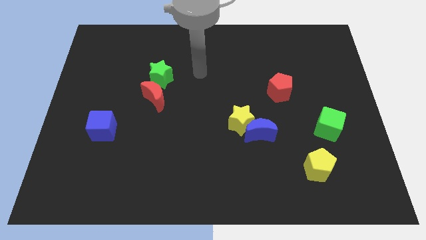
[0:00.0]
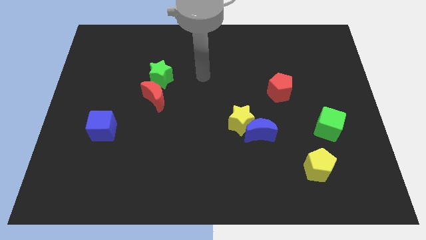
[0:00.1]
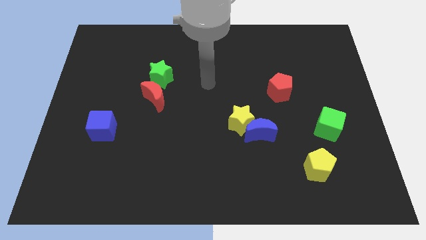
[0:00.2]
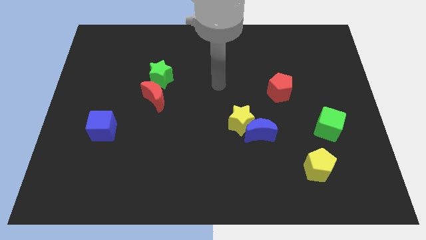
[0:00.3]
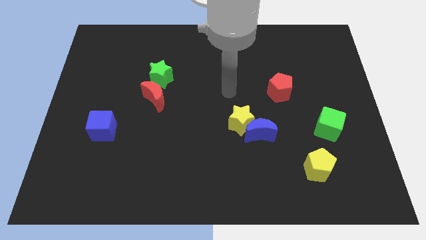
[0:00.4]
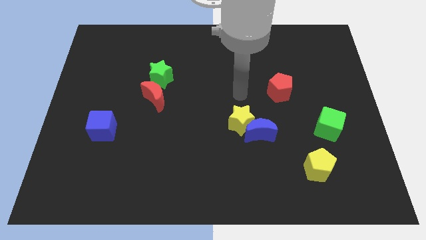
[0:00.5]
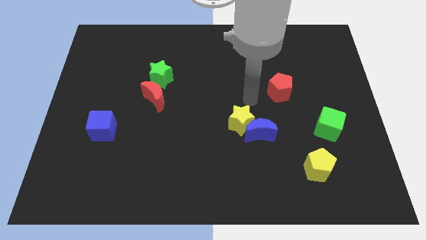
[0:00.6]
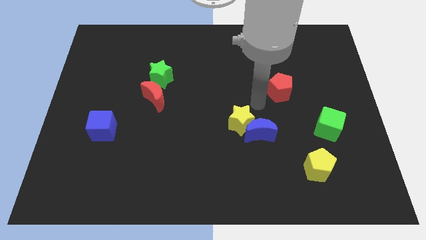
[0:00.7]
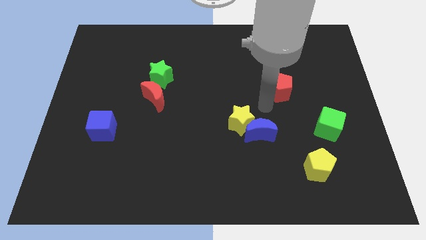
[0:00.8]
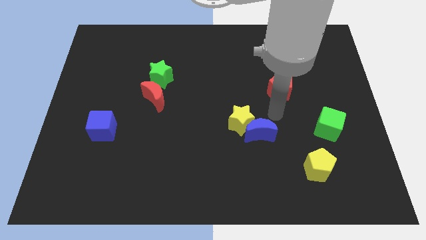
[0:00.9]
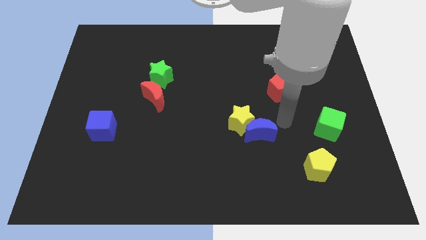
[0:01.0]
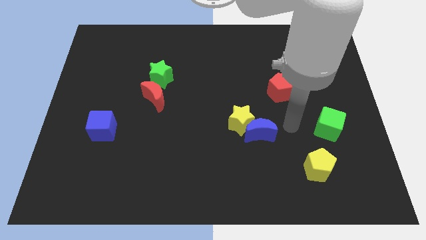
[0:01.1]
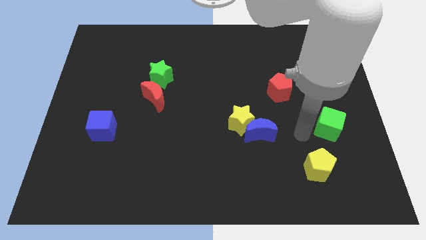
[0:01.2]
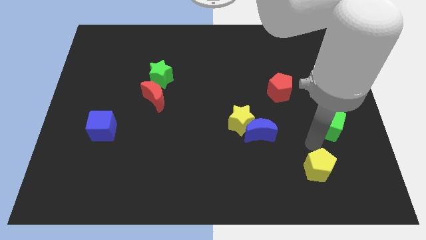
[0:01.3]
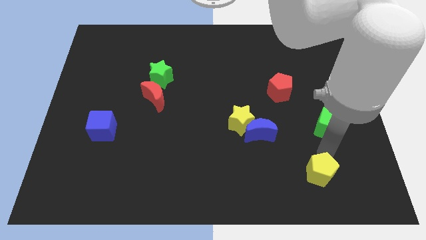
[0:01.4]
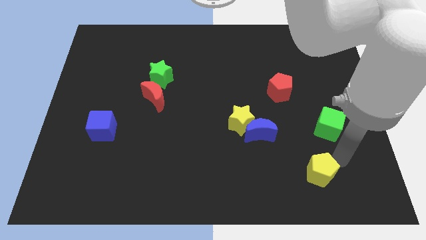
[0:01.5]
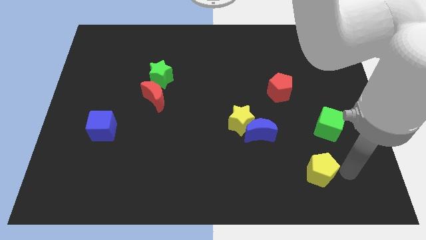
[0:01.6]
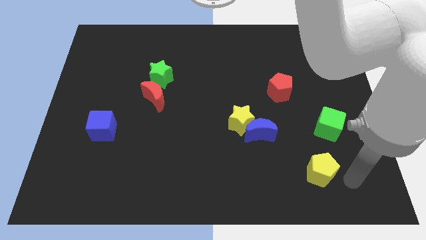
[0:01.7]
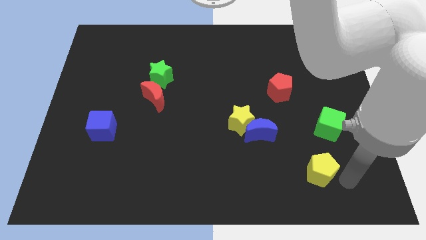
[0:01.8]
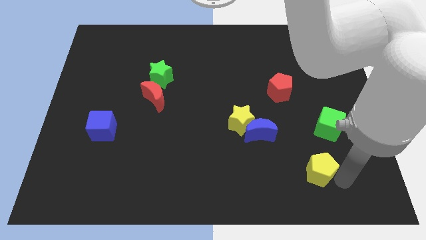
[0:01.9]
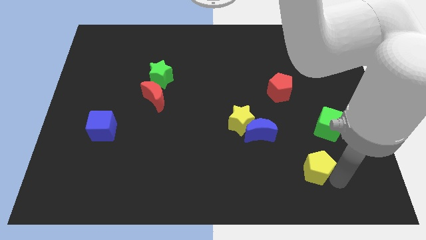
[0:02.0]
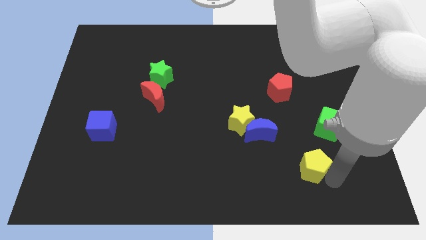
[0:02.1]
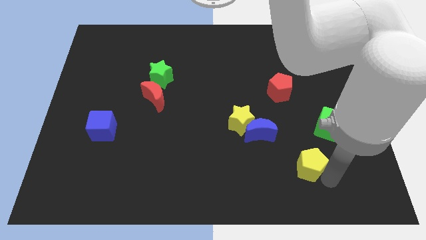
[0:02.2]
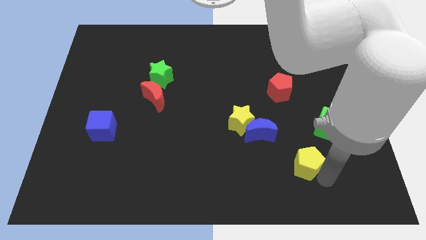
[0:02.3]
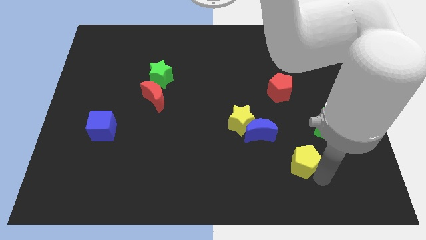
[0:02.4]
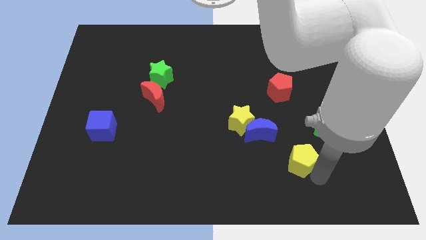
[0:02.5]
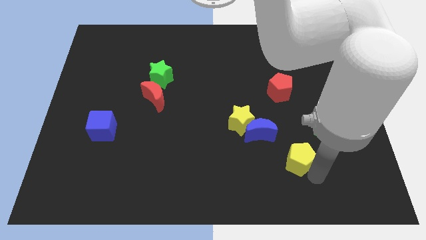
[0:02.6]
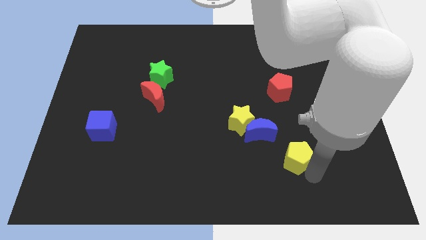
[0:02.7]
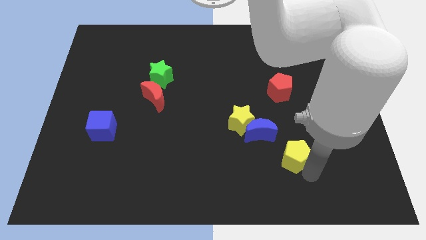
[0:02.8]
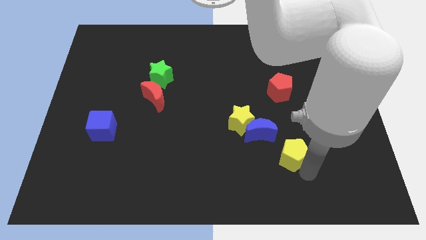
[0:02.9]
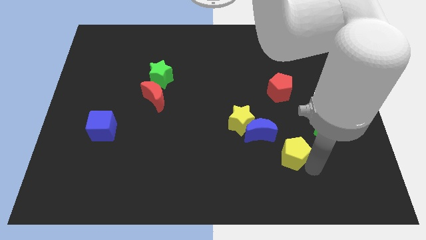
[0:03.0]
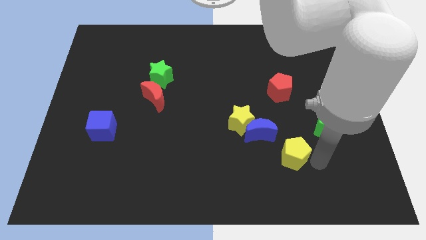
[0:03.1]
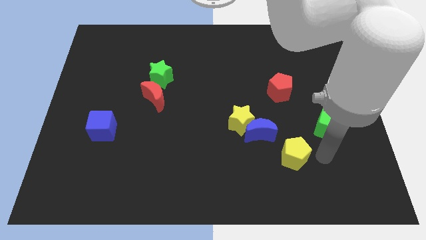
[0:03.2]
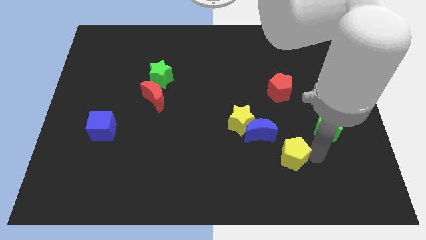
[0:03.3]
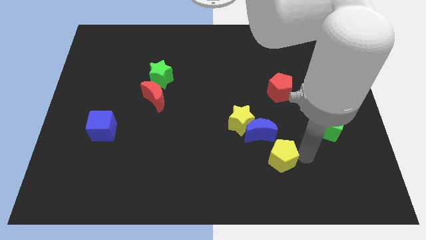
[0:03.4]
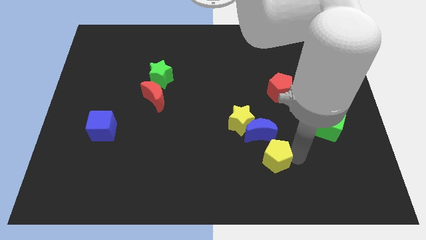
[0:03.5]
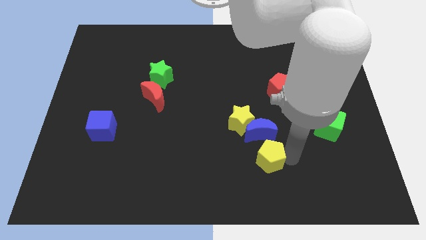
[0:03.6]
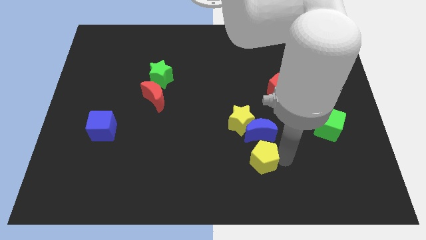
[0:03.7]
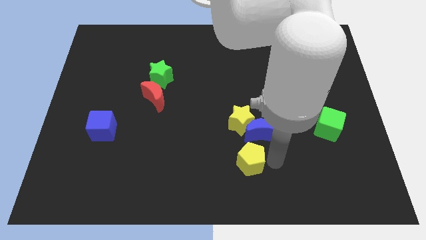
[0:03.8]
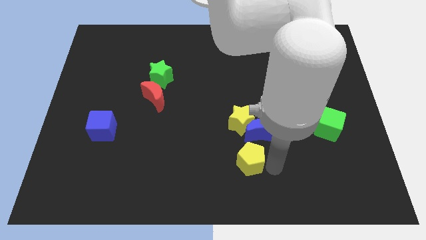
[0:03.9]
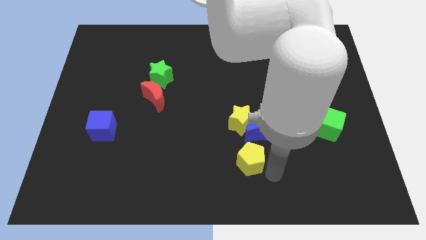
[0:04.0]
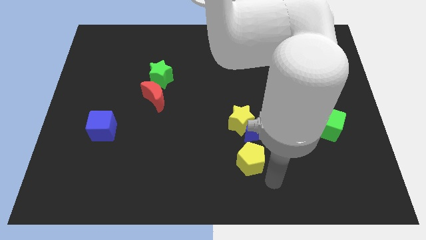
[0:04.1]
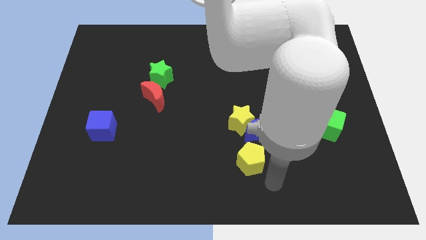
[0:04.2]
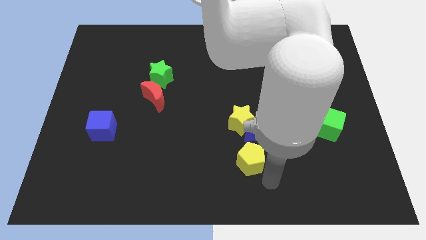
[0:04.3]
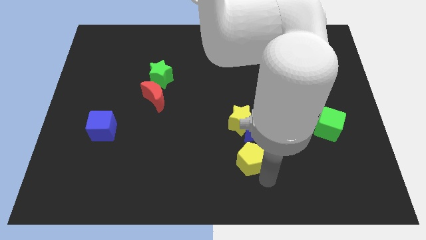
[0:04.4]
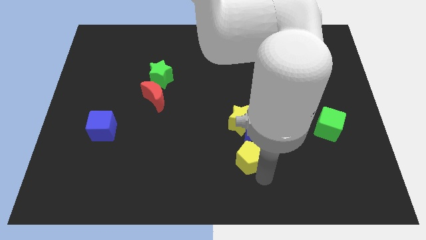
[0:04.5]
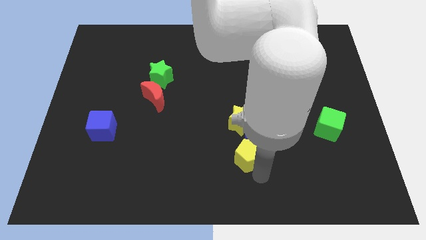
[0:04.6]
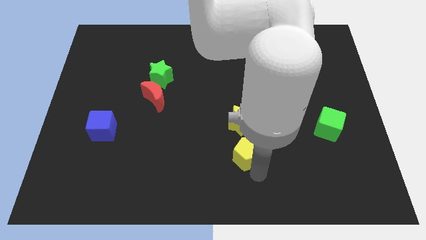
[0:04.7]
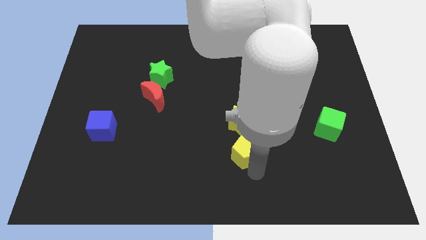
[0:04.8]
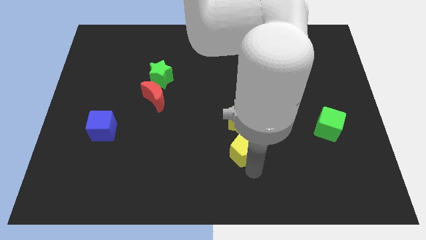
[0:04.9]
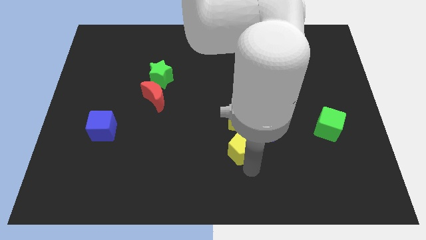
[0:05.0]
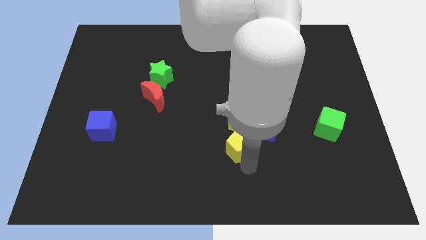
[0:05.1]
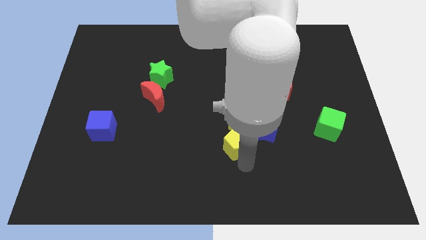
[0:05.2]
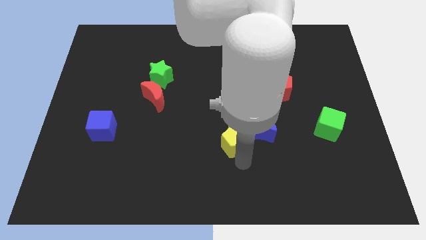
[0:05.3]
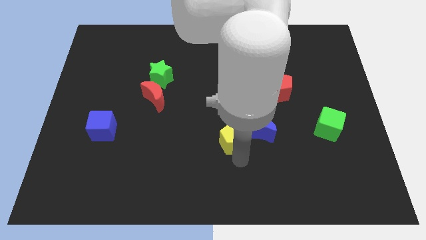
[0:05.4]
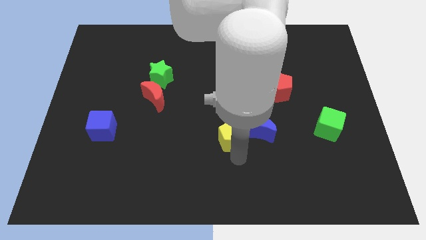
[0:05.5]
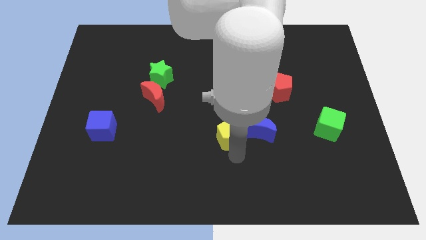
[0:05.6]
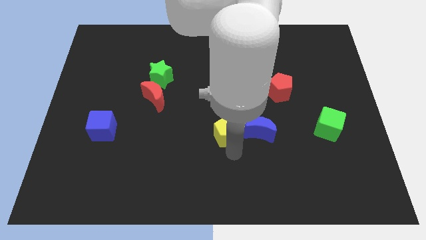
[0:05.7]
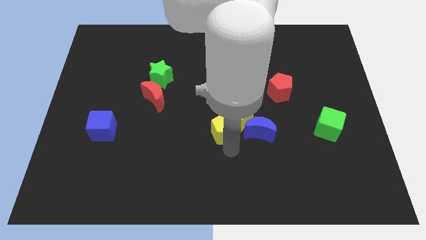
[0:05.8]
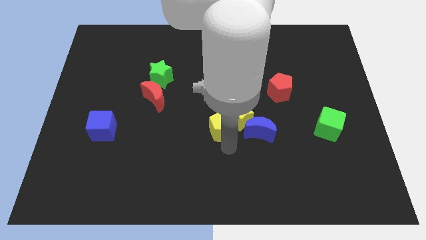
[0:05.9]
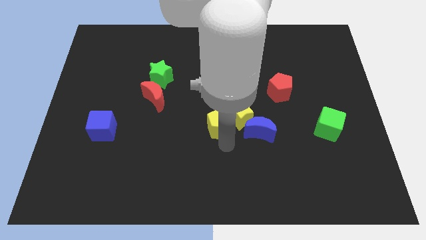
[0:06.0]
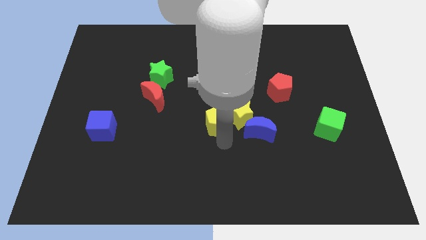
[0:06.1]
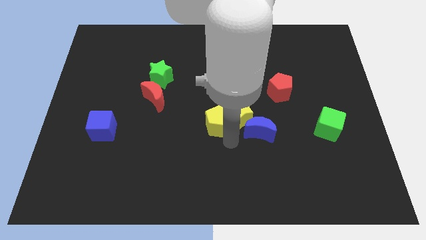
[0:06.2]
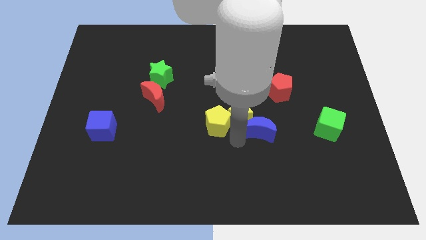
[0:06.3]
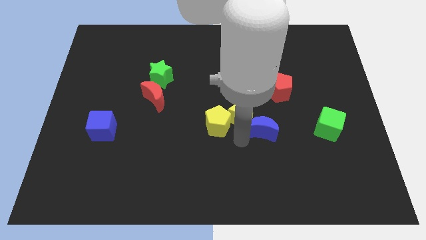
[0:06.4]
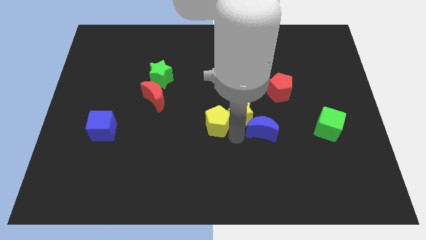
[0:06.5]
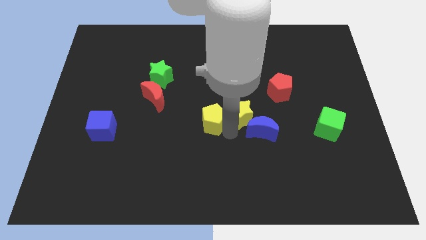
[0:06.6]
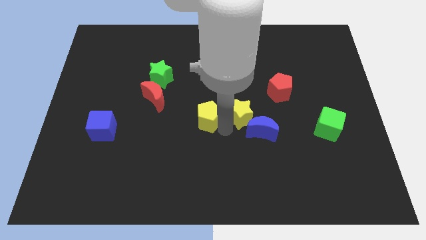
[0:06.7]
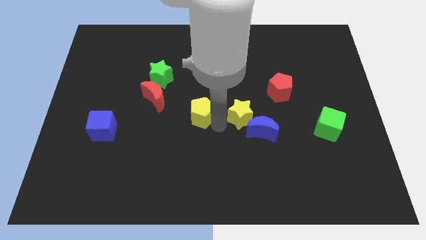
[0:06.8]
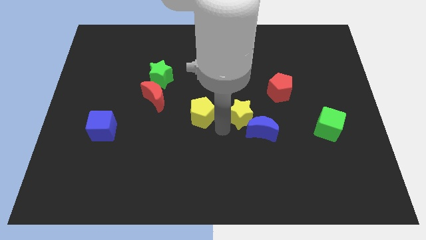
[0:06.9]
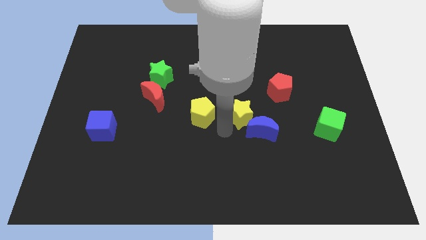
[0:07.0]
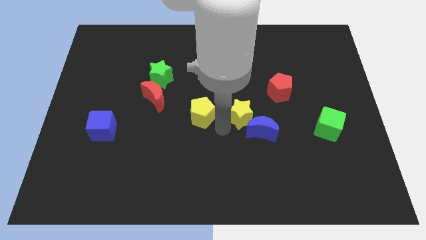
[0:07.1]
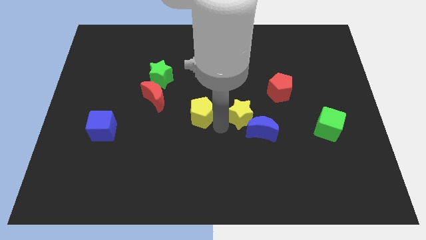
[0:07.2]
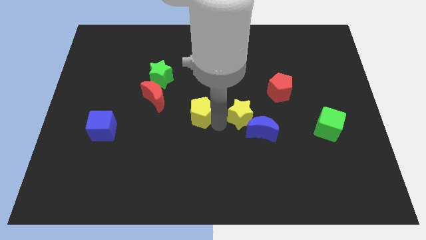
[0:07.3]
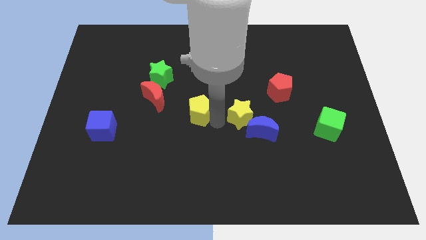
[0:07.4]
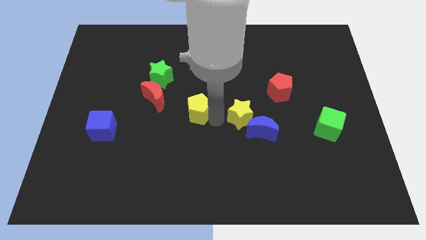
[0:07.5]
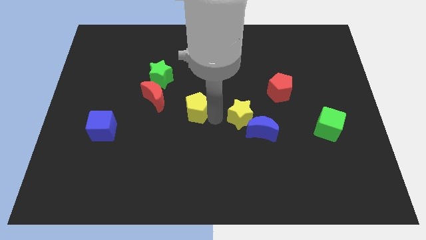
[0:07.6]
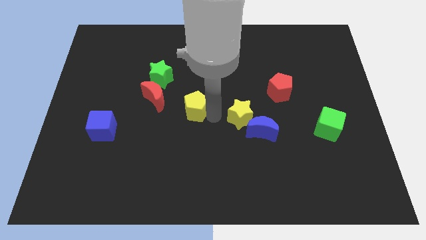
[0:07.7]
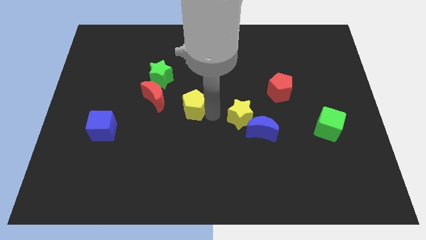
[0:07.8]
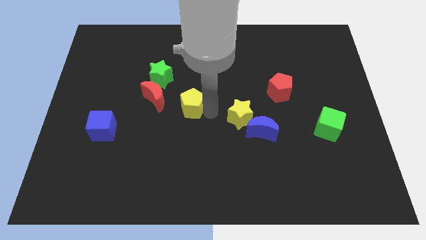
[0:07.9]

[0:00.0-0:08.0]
slide the yellow pentagon diagonally down and to the right of the green star

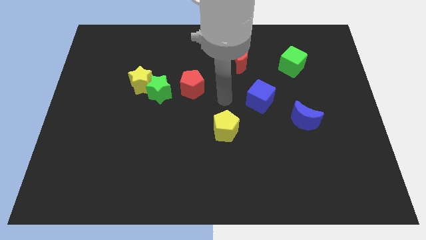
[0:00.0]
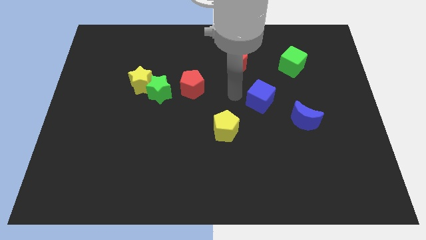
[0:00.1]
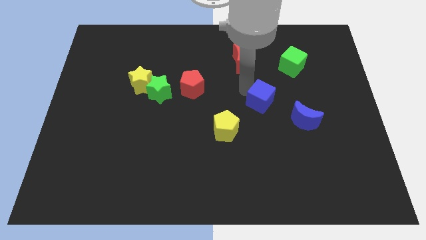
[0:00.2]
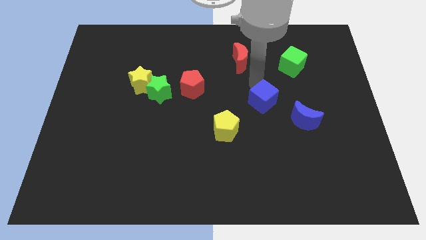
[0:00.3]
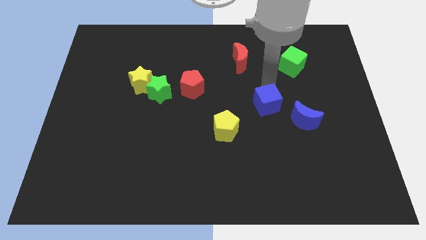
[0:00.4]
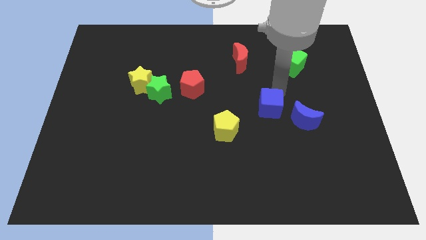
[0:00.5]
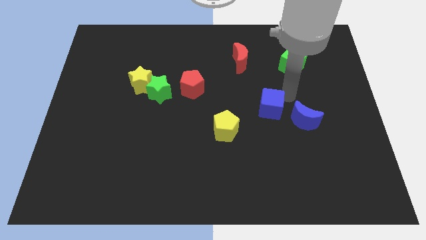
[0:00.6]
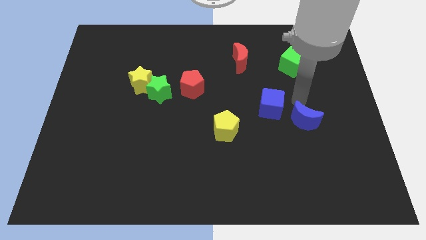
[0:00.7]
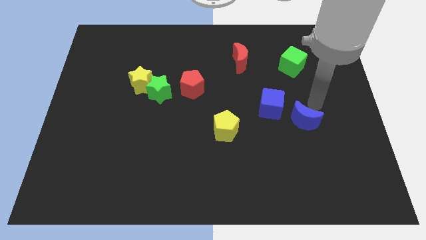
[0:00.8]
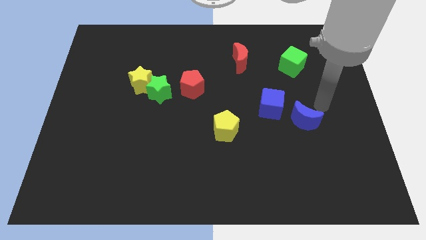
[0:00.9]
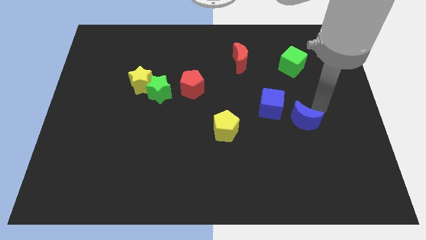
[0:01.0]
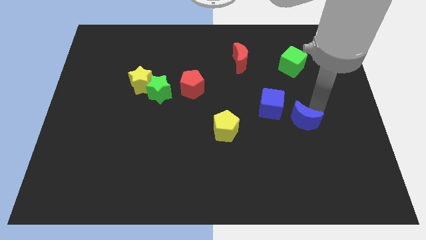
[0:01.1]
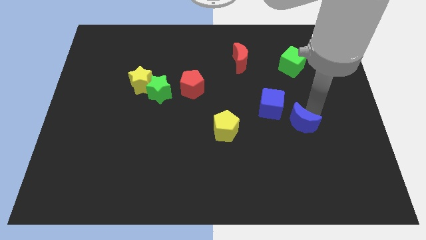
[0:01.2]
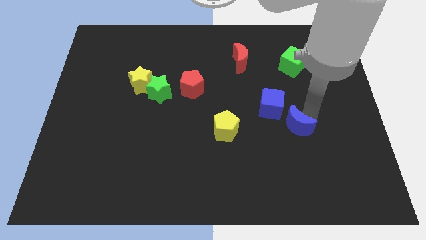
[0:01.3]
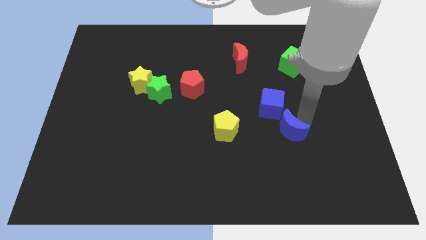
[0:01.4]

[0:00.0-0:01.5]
push the blue moon to the bottom of the blue cube
